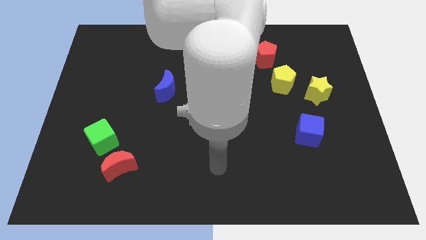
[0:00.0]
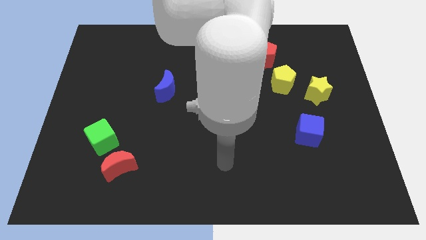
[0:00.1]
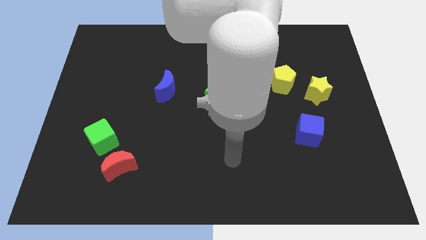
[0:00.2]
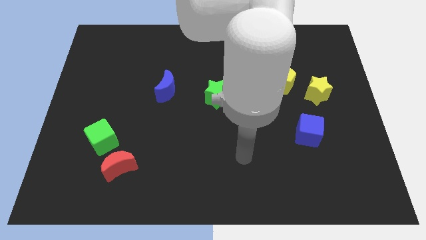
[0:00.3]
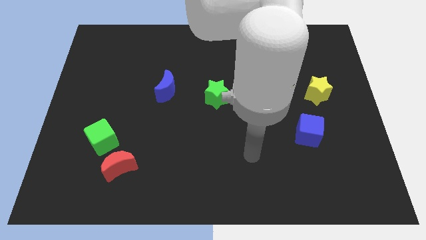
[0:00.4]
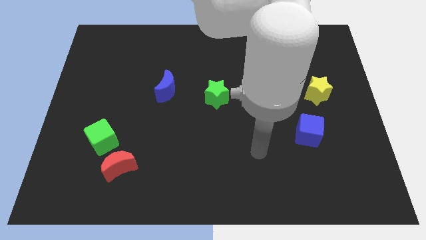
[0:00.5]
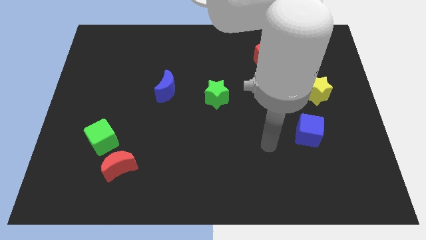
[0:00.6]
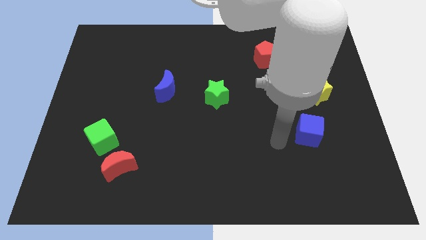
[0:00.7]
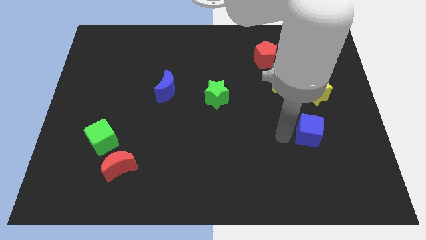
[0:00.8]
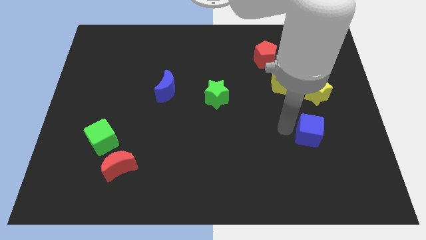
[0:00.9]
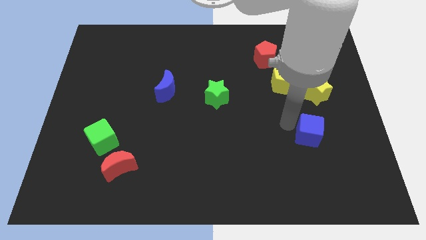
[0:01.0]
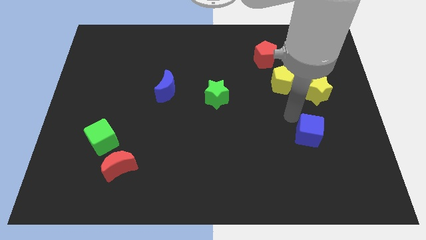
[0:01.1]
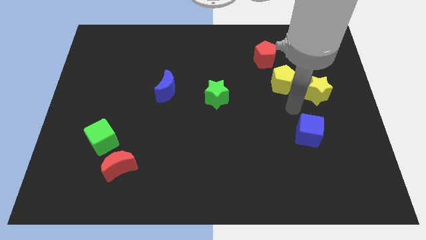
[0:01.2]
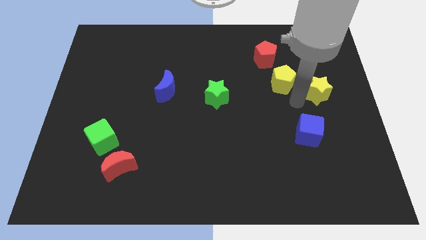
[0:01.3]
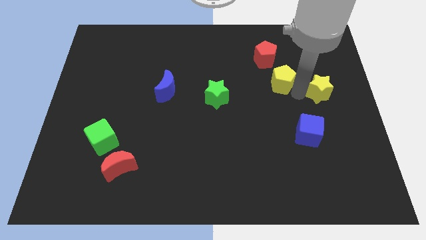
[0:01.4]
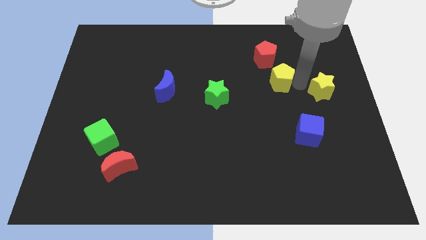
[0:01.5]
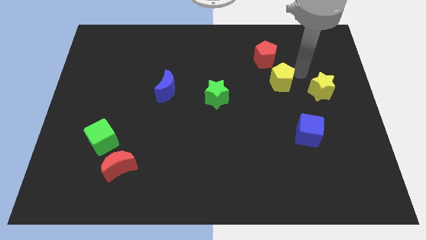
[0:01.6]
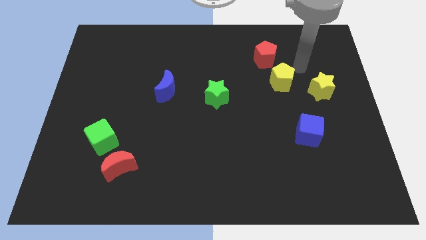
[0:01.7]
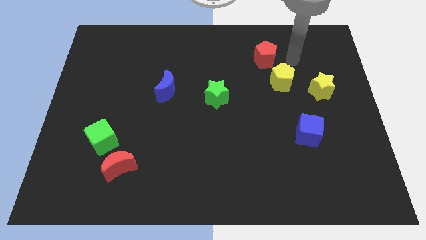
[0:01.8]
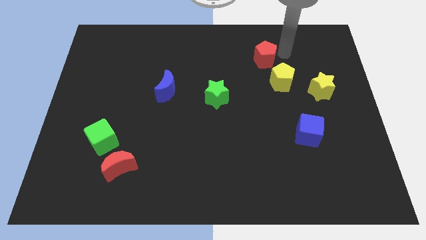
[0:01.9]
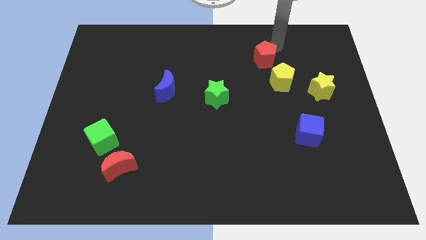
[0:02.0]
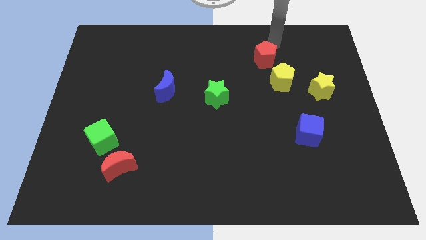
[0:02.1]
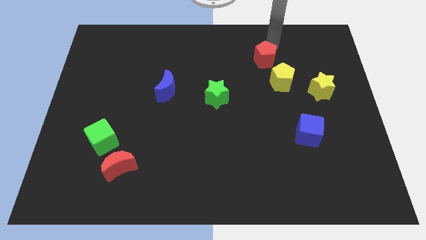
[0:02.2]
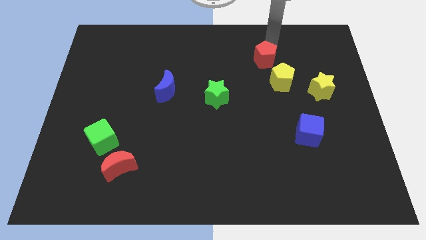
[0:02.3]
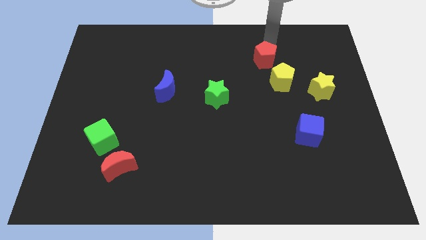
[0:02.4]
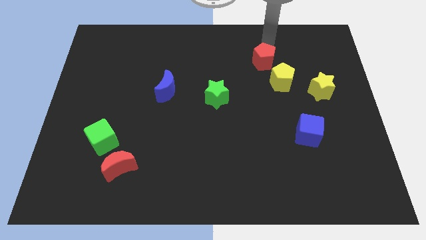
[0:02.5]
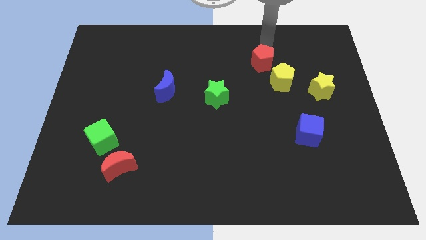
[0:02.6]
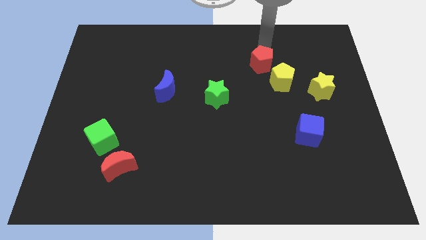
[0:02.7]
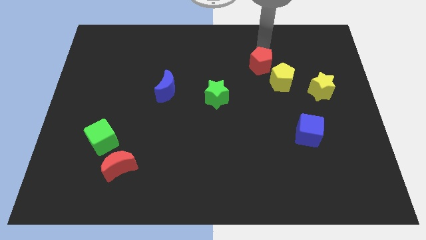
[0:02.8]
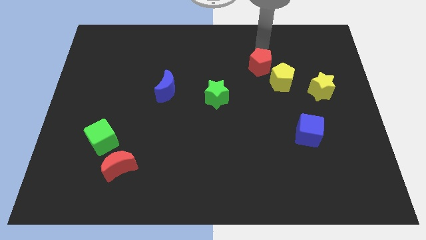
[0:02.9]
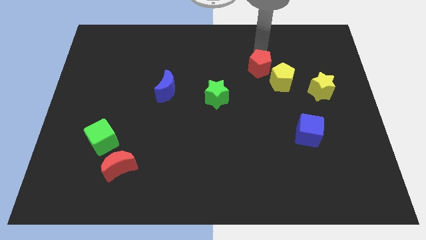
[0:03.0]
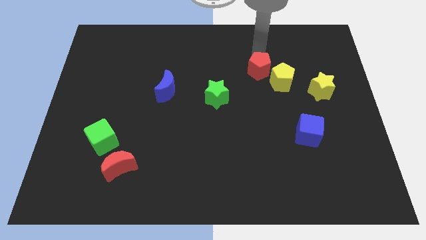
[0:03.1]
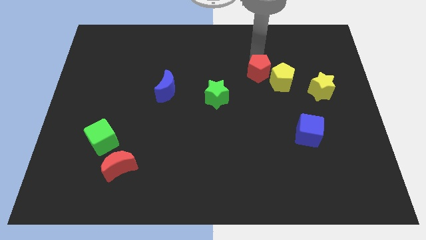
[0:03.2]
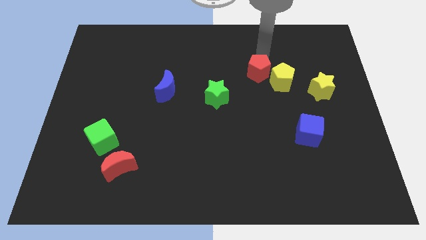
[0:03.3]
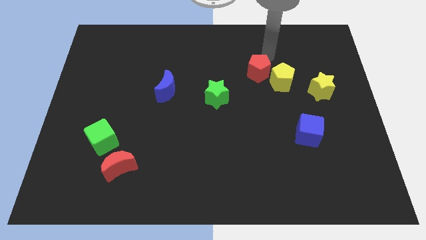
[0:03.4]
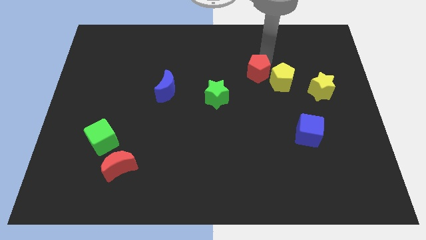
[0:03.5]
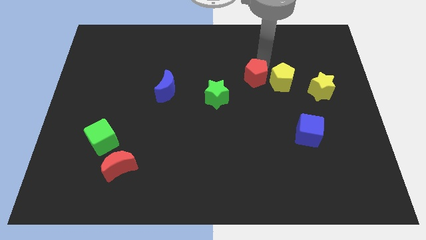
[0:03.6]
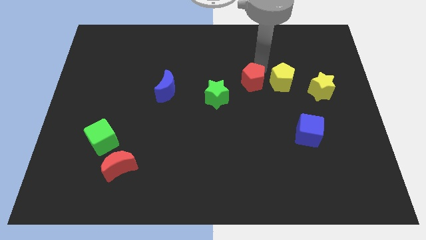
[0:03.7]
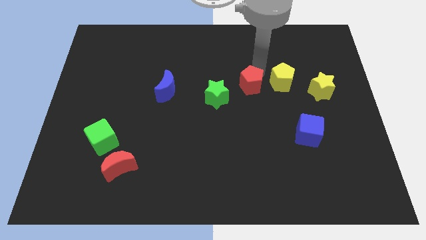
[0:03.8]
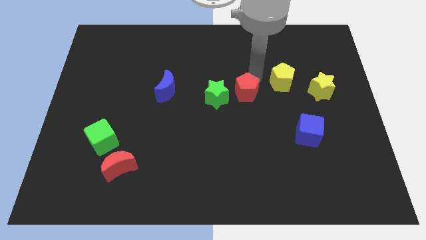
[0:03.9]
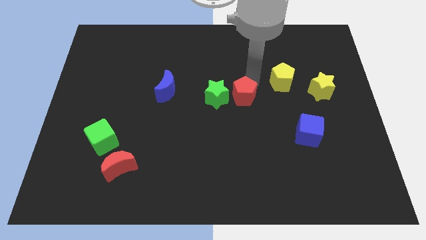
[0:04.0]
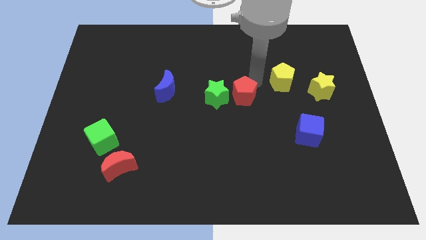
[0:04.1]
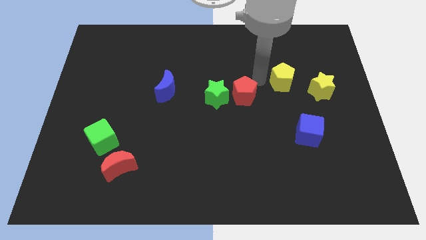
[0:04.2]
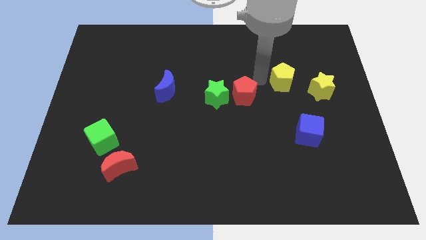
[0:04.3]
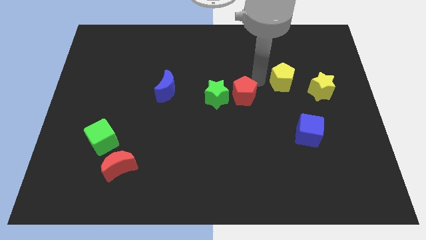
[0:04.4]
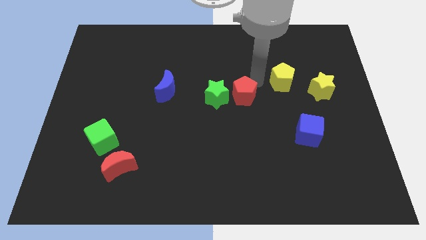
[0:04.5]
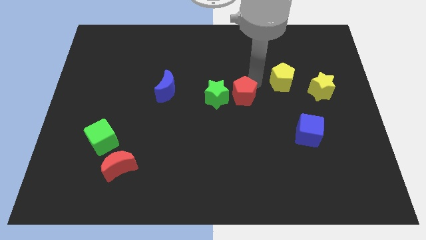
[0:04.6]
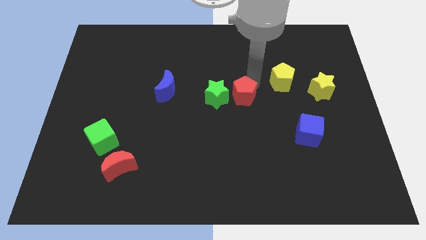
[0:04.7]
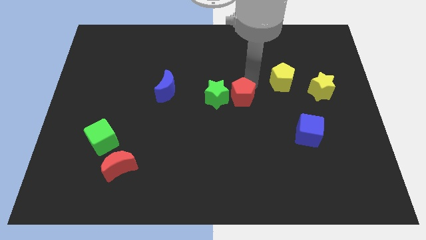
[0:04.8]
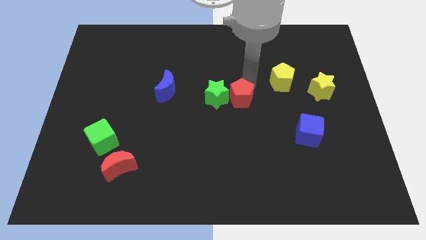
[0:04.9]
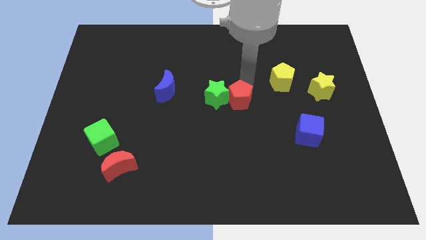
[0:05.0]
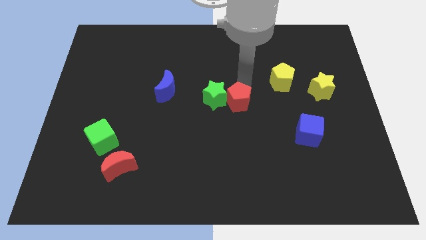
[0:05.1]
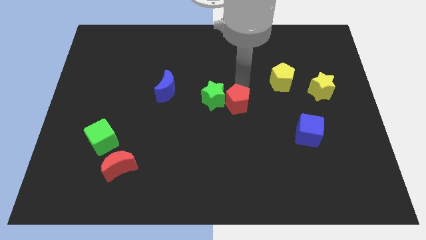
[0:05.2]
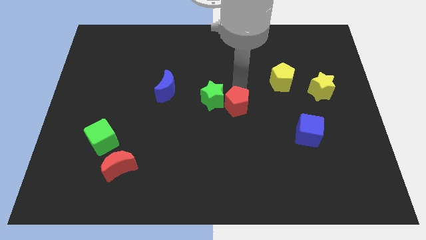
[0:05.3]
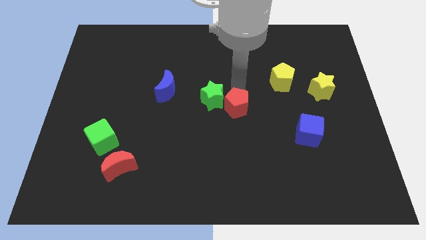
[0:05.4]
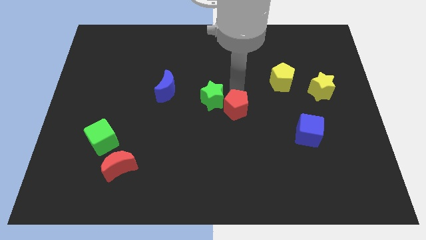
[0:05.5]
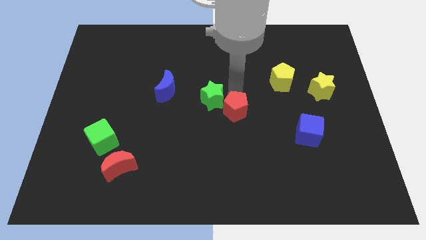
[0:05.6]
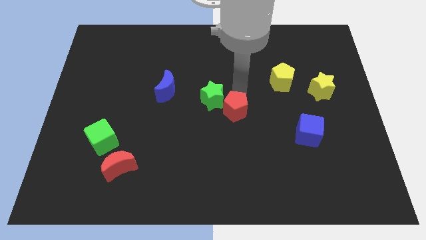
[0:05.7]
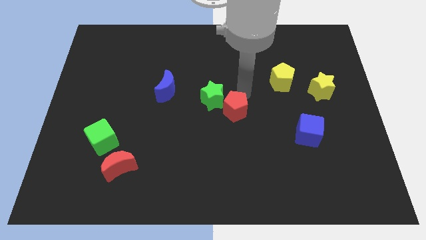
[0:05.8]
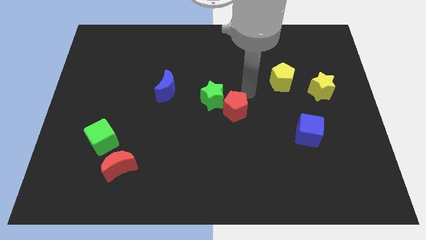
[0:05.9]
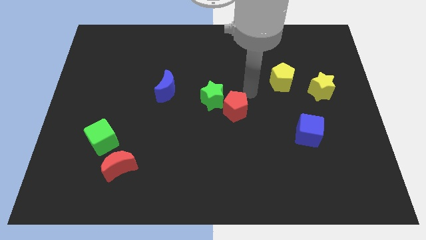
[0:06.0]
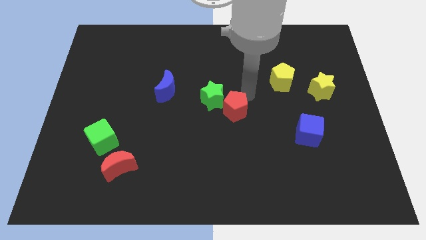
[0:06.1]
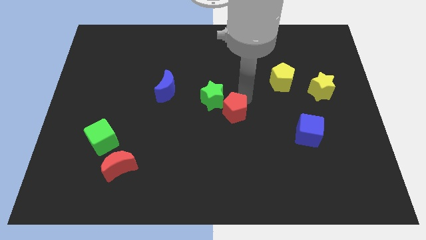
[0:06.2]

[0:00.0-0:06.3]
slide the red pentagon to the bottom side of the green star

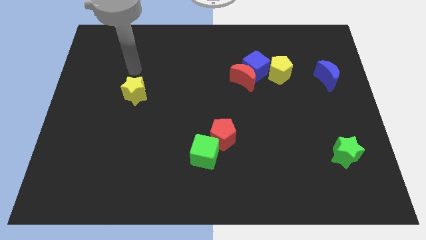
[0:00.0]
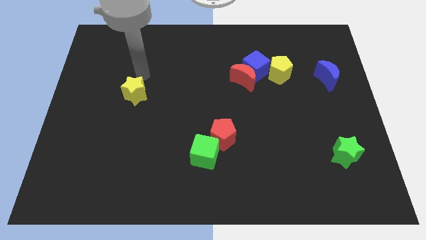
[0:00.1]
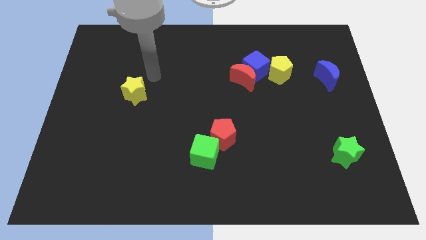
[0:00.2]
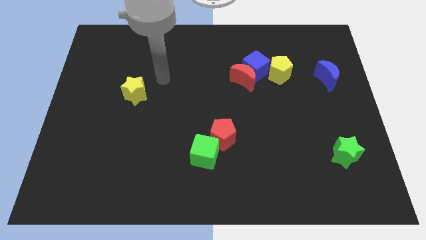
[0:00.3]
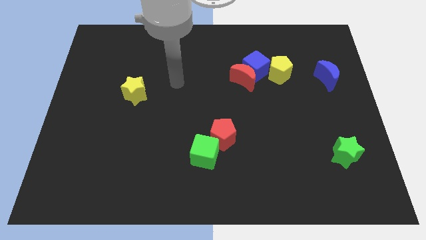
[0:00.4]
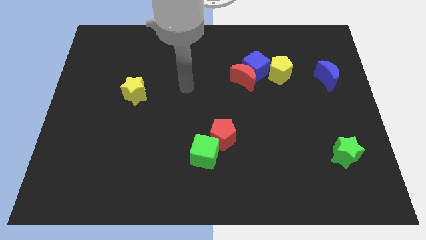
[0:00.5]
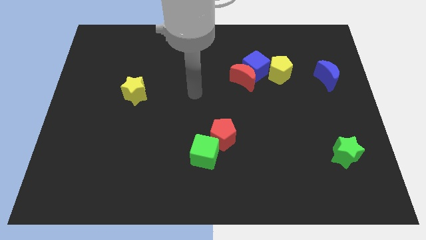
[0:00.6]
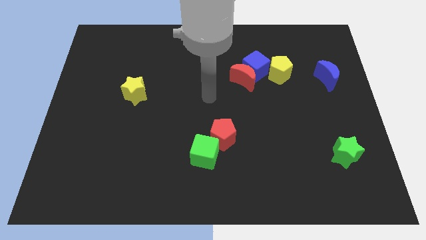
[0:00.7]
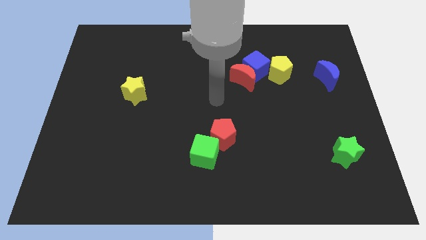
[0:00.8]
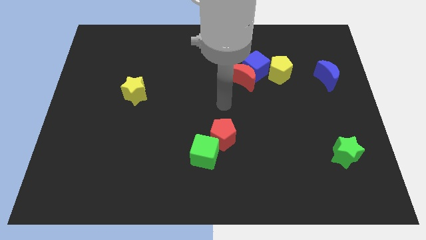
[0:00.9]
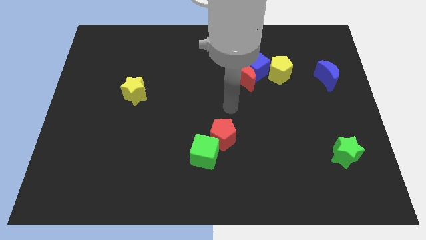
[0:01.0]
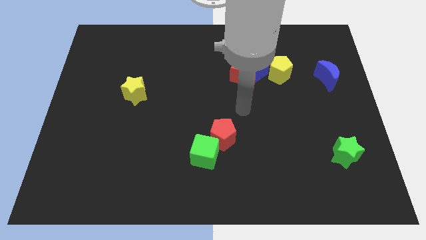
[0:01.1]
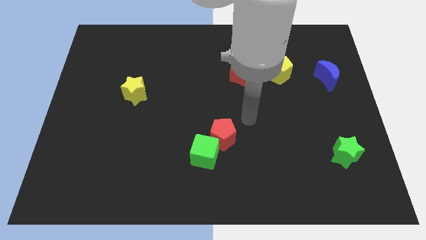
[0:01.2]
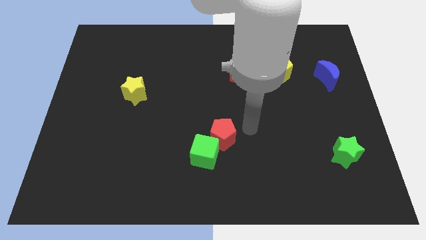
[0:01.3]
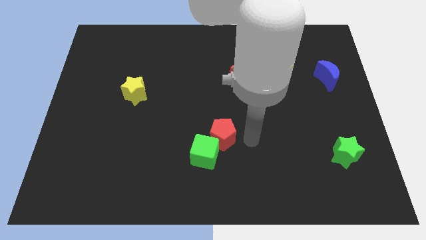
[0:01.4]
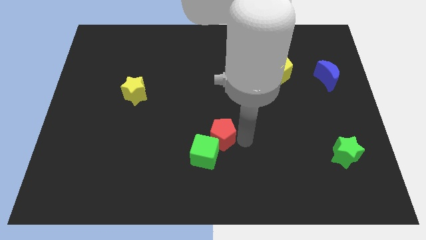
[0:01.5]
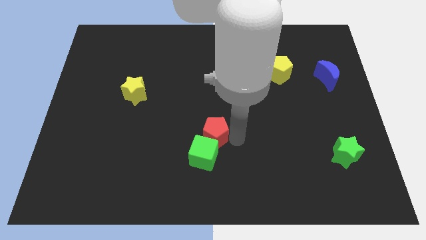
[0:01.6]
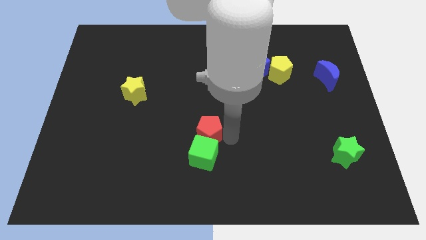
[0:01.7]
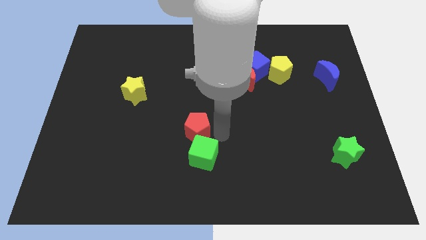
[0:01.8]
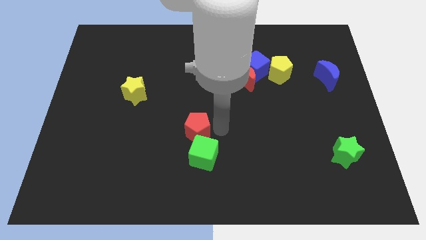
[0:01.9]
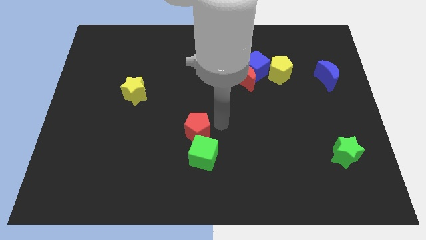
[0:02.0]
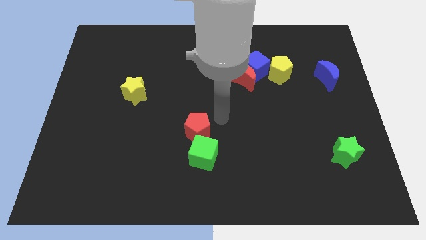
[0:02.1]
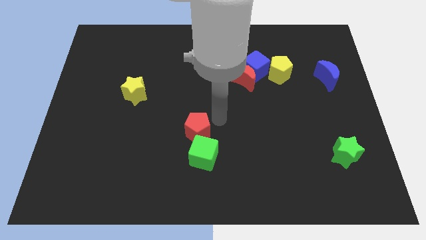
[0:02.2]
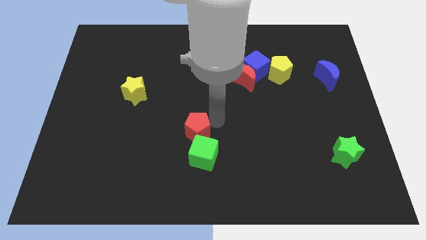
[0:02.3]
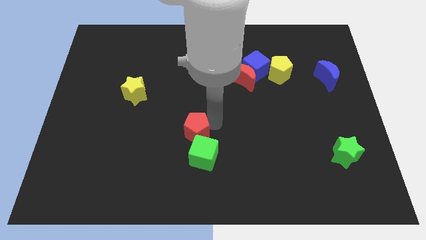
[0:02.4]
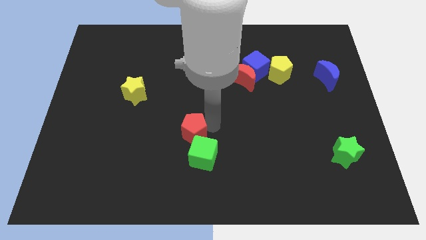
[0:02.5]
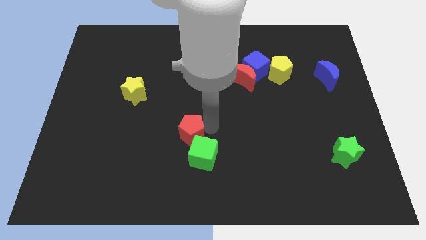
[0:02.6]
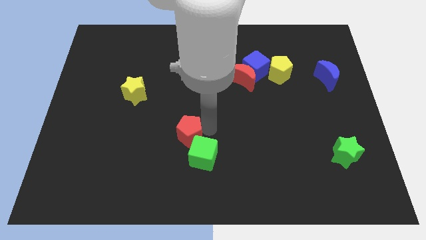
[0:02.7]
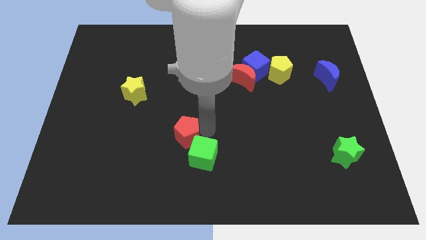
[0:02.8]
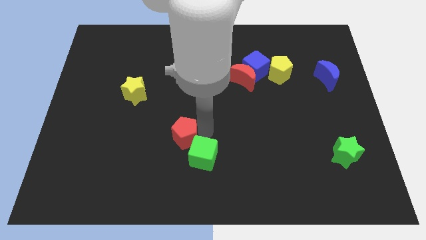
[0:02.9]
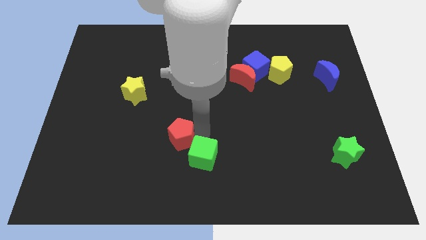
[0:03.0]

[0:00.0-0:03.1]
move the red pentagon to the left side of the green cube
